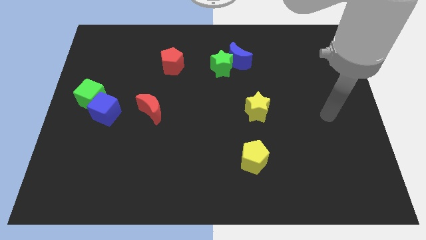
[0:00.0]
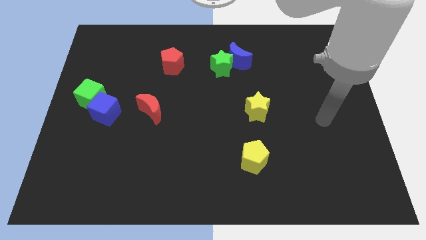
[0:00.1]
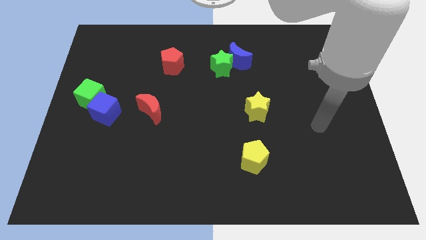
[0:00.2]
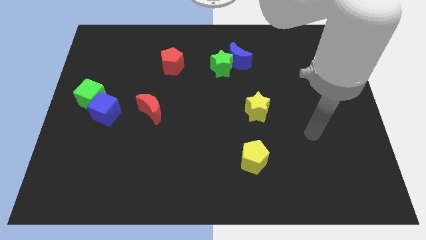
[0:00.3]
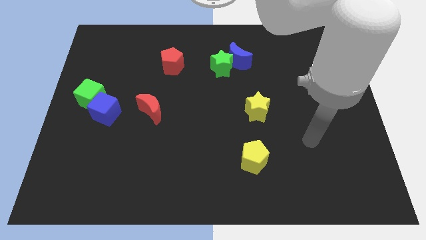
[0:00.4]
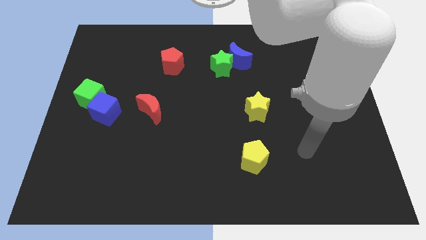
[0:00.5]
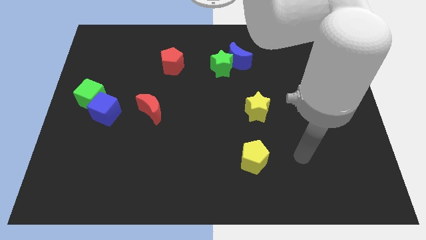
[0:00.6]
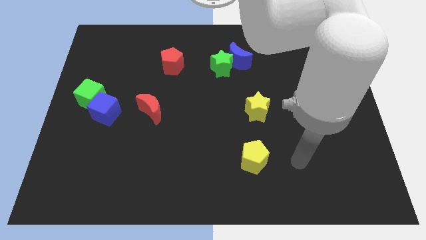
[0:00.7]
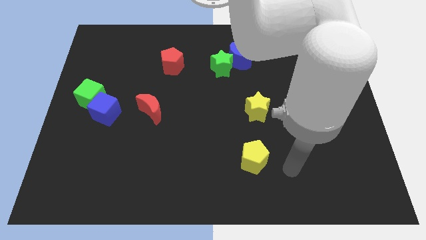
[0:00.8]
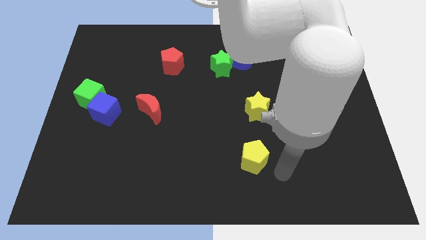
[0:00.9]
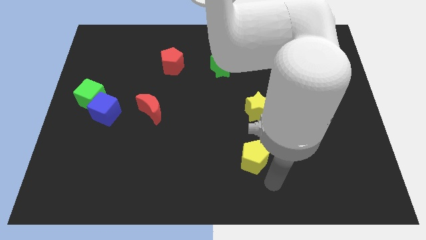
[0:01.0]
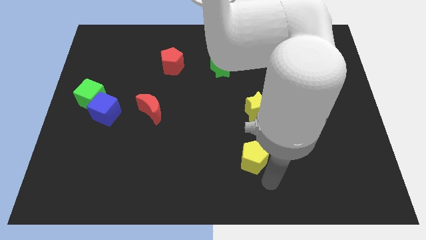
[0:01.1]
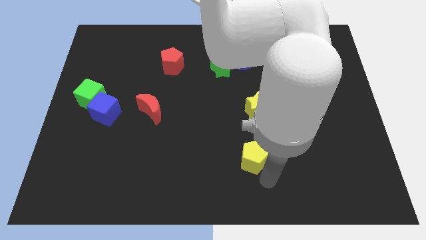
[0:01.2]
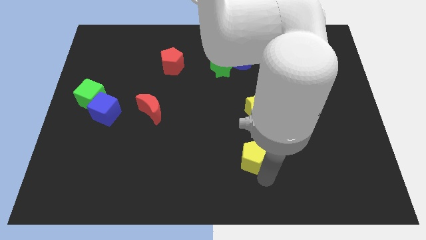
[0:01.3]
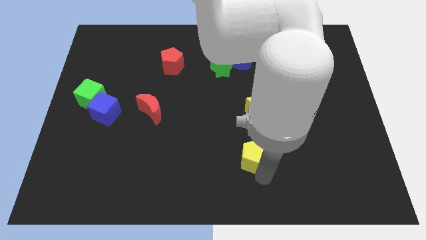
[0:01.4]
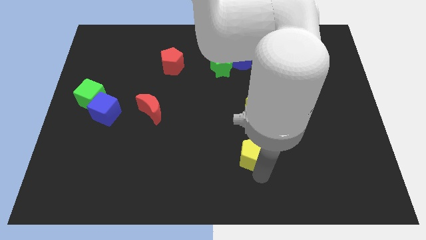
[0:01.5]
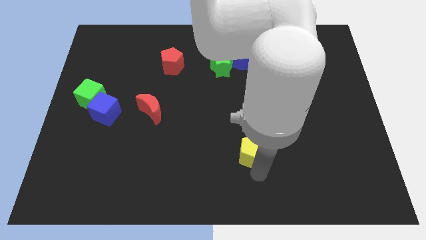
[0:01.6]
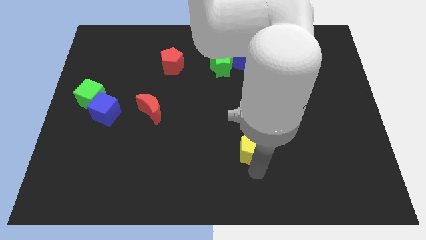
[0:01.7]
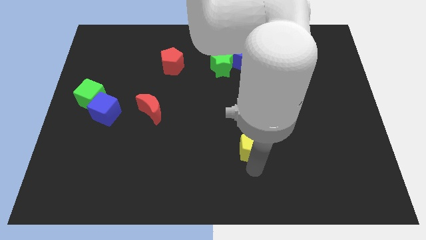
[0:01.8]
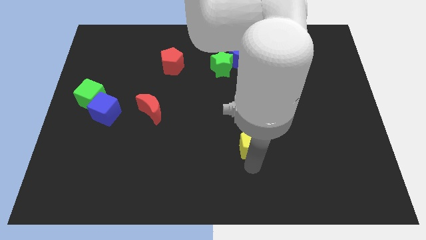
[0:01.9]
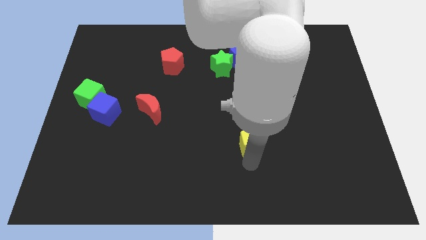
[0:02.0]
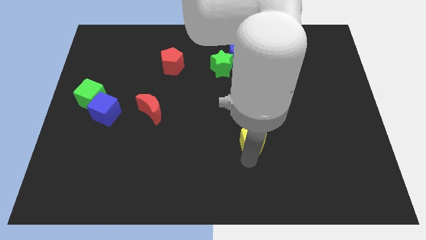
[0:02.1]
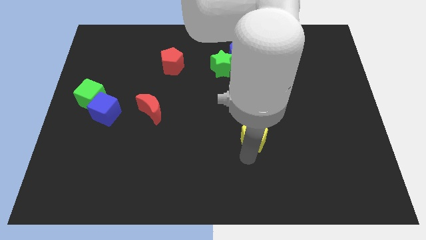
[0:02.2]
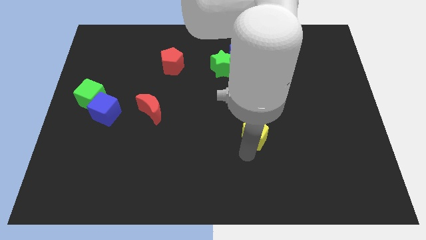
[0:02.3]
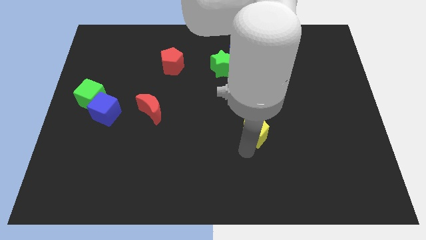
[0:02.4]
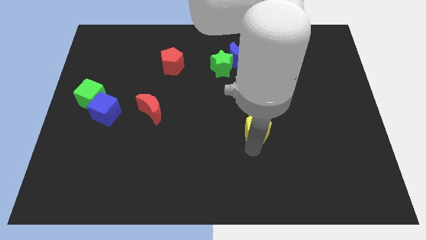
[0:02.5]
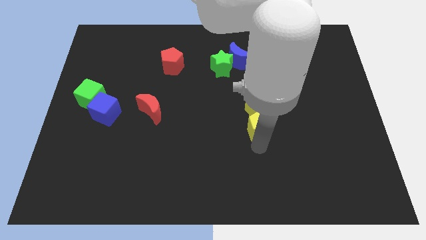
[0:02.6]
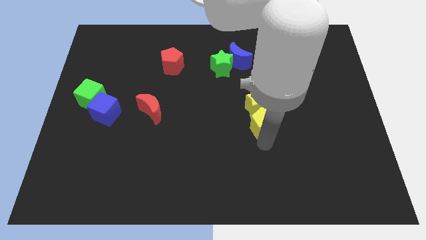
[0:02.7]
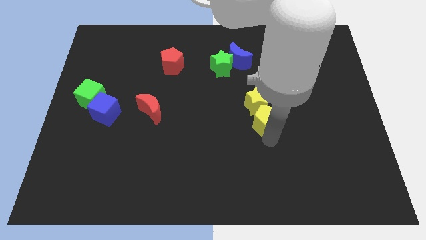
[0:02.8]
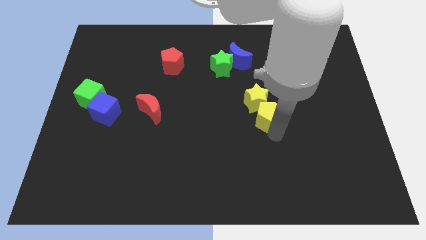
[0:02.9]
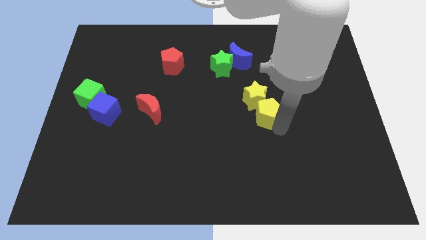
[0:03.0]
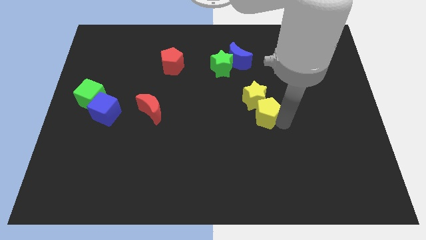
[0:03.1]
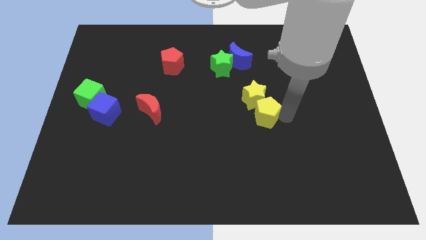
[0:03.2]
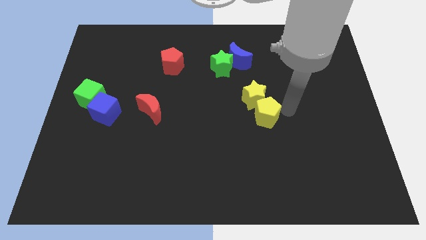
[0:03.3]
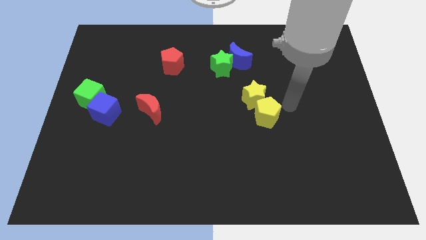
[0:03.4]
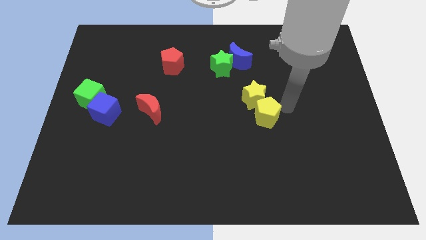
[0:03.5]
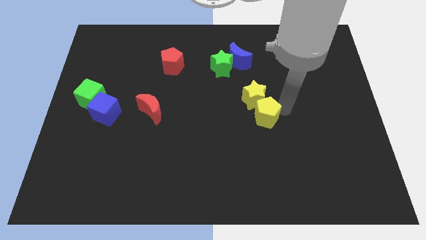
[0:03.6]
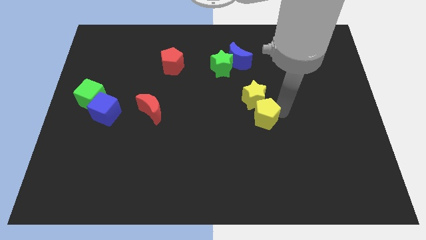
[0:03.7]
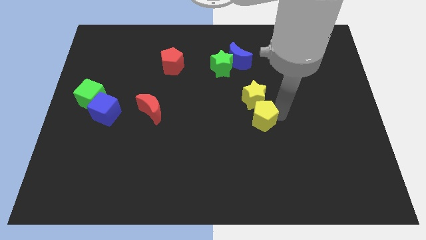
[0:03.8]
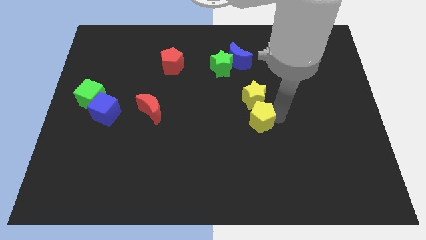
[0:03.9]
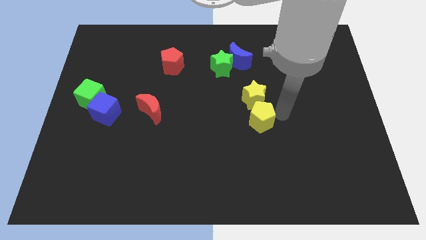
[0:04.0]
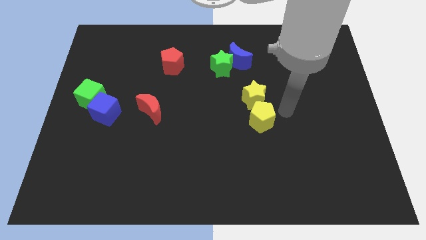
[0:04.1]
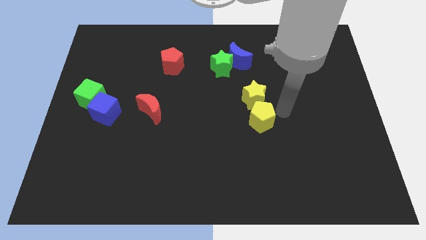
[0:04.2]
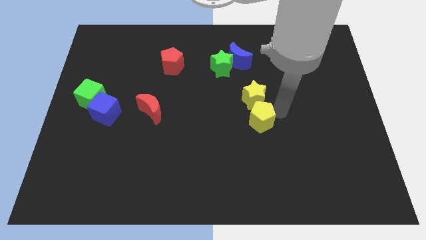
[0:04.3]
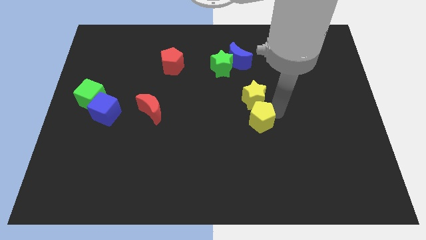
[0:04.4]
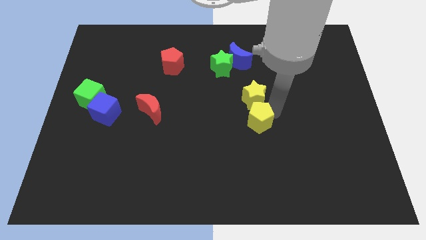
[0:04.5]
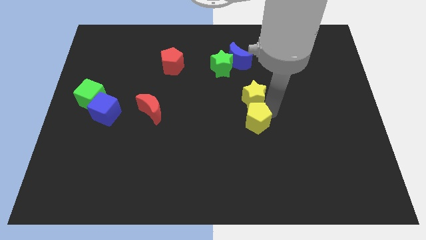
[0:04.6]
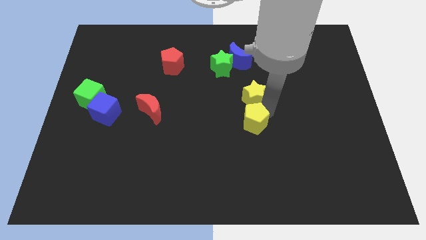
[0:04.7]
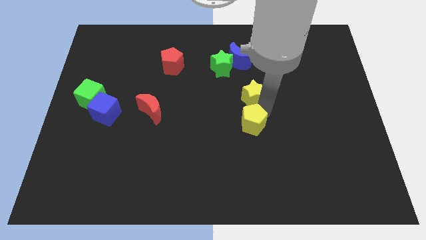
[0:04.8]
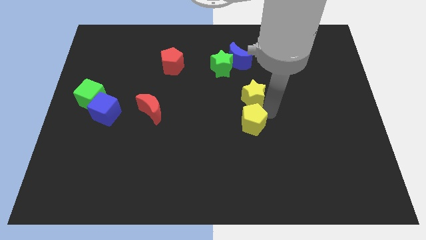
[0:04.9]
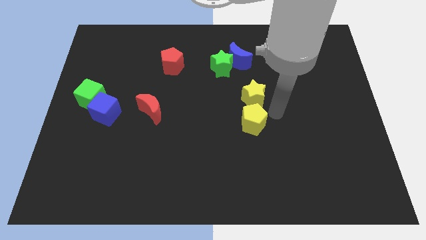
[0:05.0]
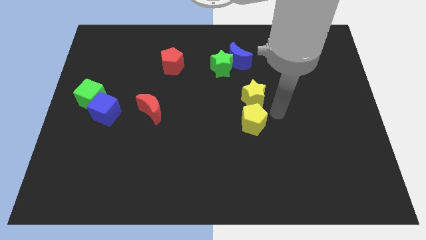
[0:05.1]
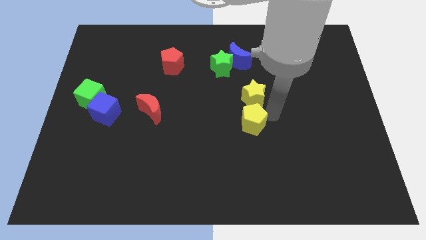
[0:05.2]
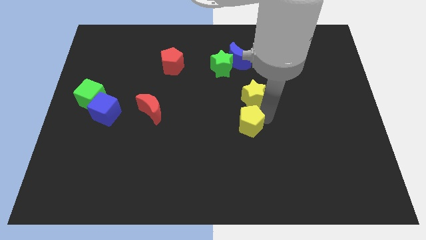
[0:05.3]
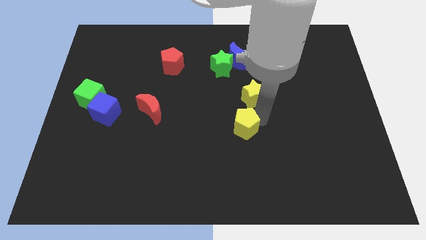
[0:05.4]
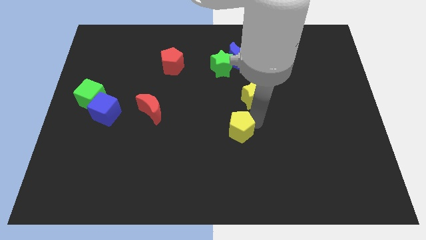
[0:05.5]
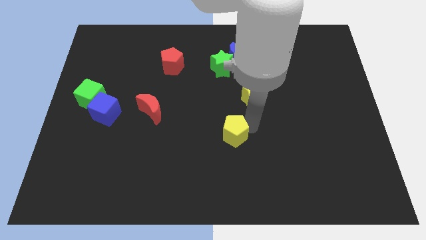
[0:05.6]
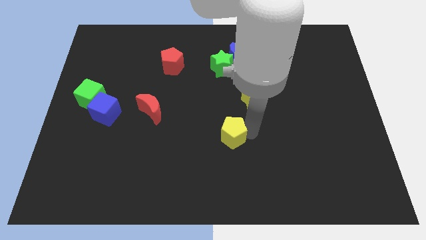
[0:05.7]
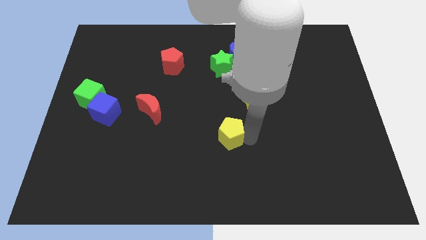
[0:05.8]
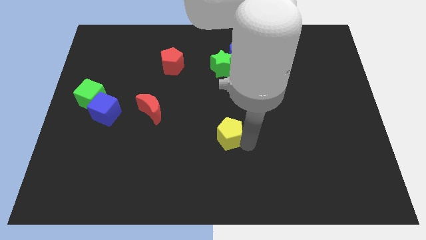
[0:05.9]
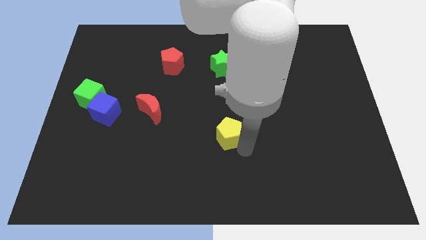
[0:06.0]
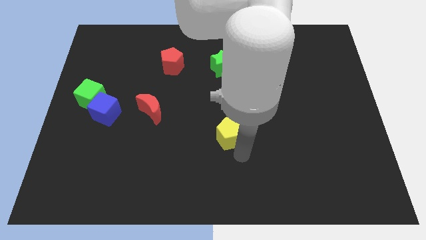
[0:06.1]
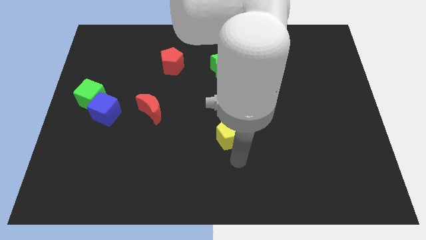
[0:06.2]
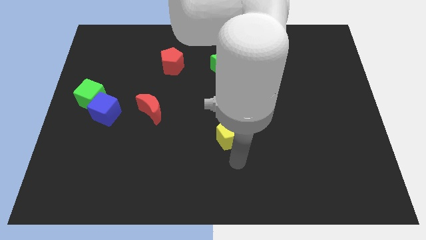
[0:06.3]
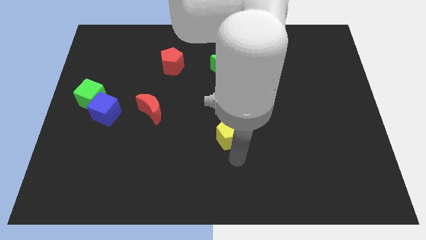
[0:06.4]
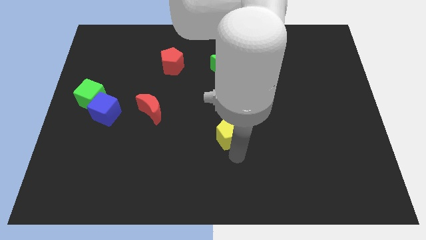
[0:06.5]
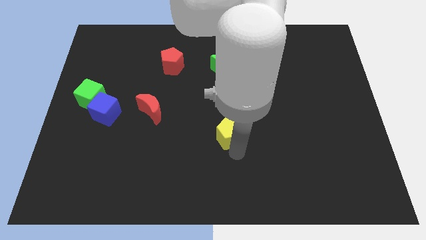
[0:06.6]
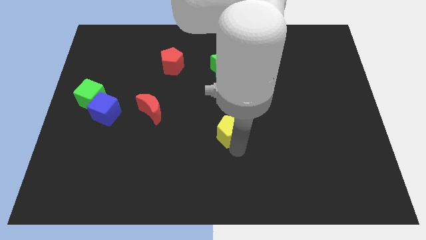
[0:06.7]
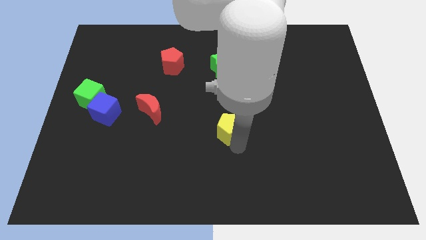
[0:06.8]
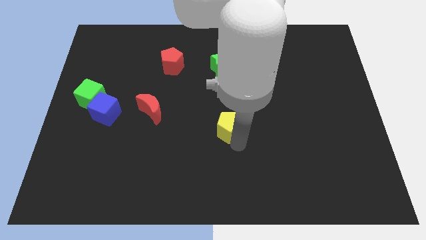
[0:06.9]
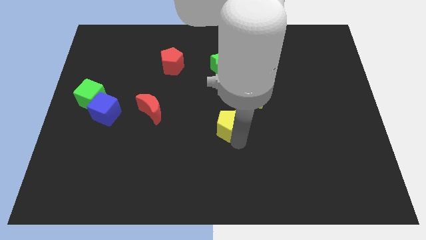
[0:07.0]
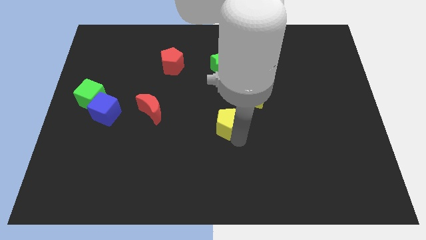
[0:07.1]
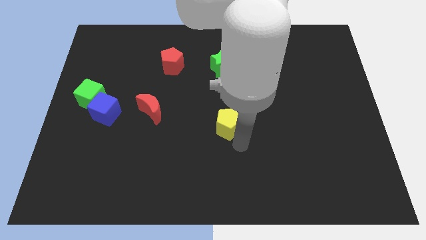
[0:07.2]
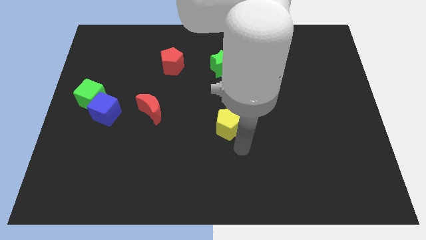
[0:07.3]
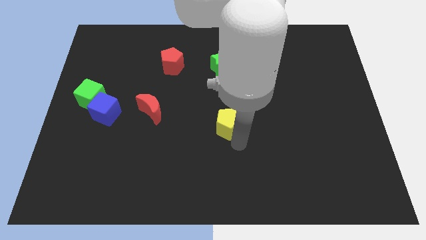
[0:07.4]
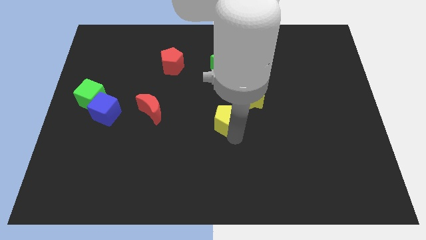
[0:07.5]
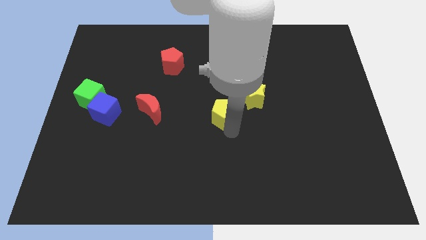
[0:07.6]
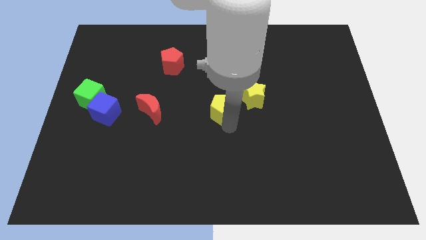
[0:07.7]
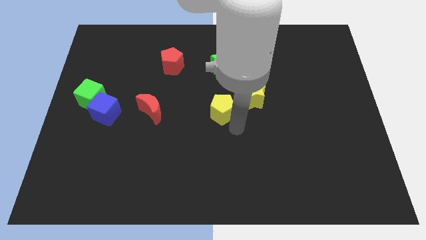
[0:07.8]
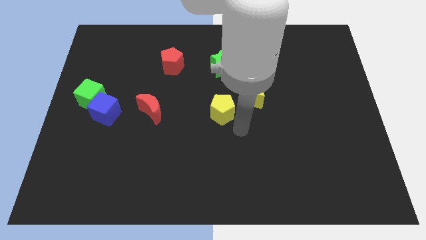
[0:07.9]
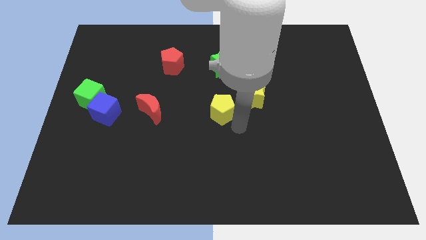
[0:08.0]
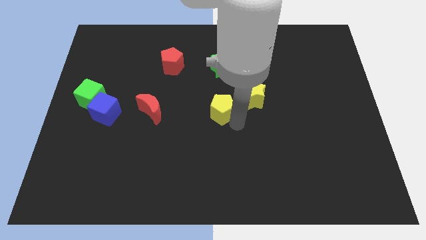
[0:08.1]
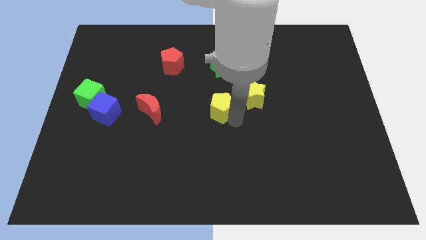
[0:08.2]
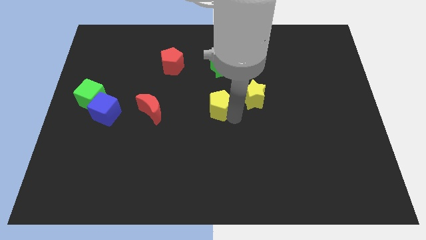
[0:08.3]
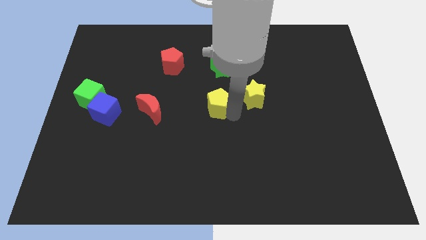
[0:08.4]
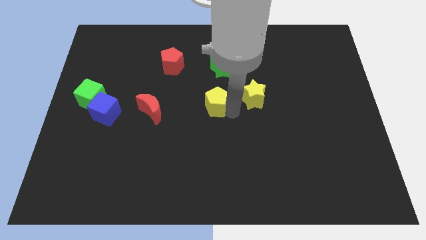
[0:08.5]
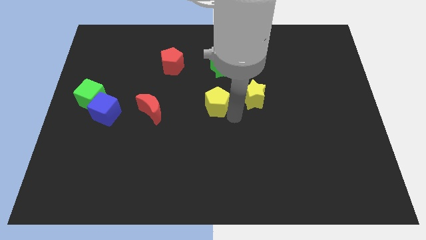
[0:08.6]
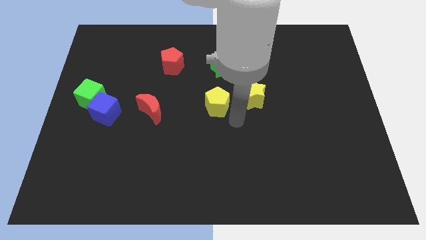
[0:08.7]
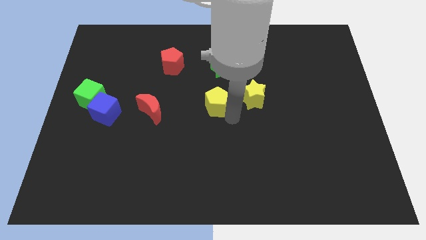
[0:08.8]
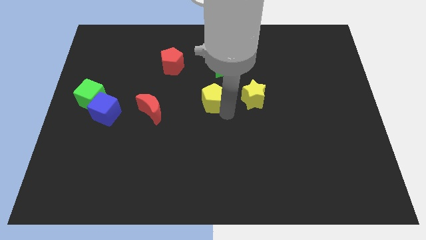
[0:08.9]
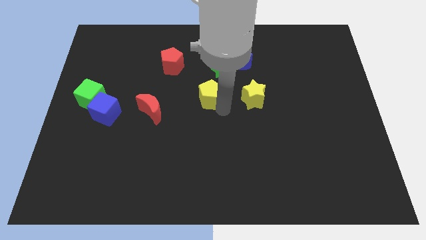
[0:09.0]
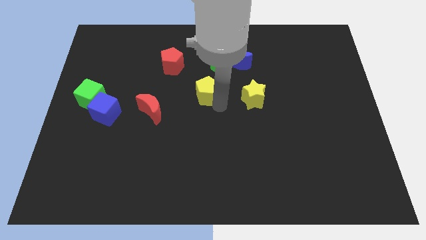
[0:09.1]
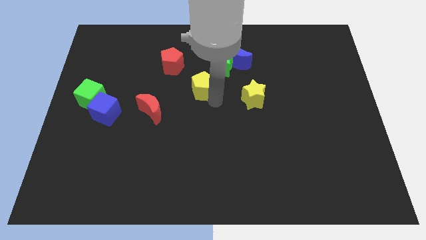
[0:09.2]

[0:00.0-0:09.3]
push the yellow pentagon to the bottom right side of the red pentagon
